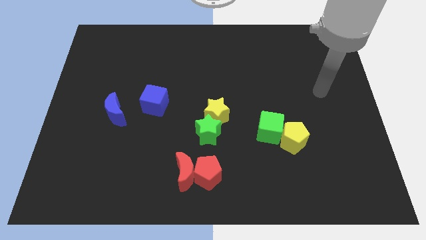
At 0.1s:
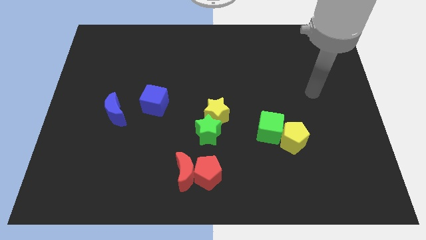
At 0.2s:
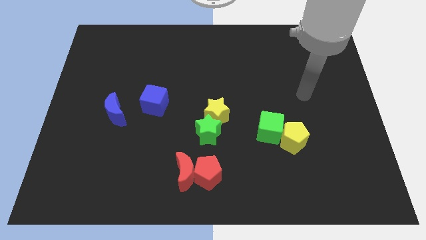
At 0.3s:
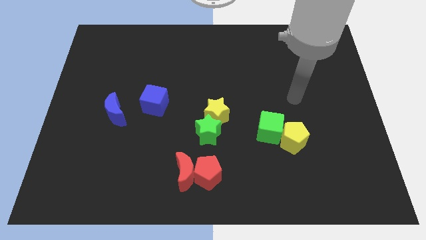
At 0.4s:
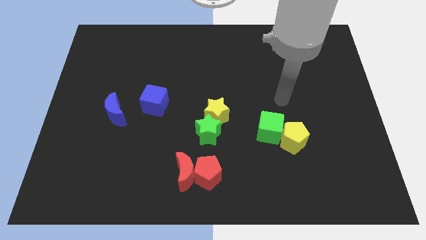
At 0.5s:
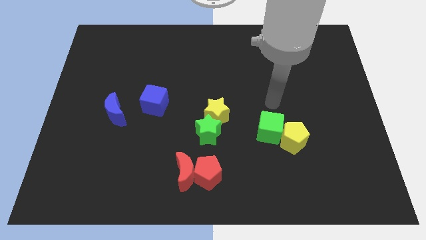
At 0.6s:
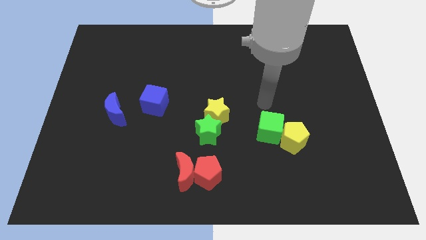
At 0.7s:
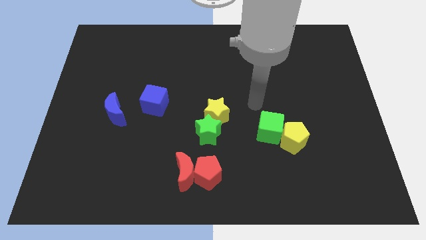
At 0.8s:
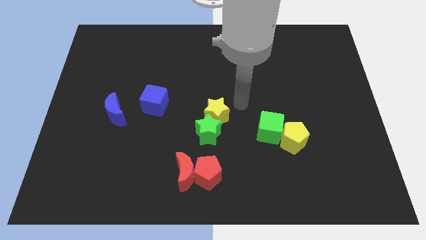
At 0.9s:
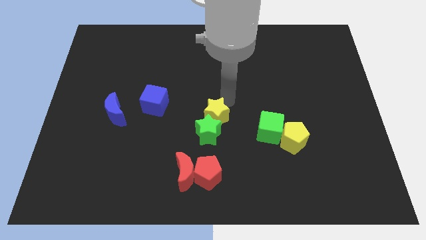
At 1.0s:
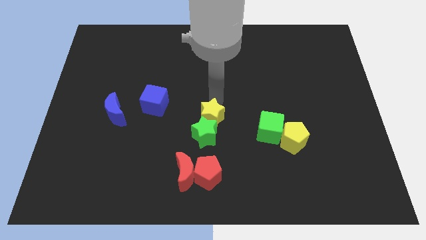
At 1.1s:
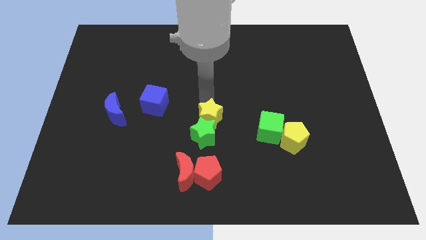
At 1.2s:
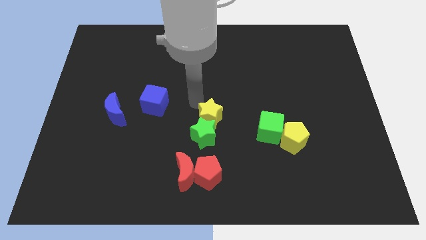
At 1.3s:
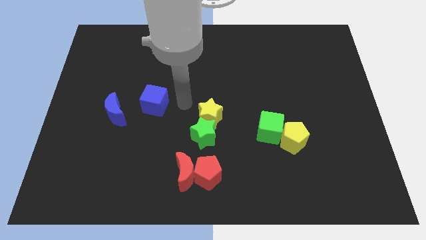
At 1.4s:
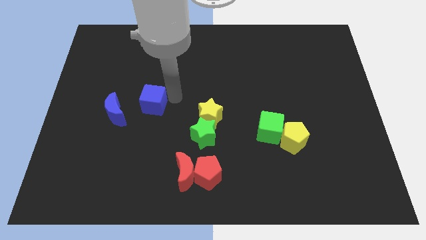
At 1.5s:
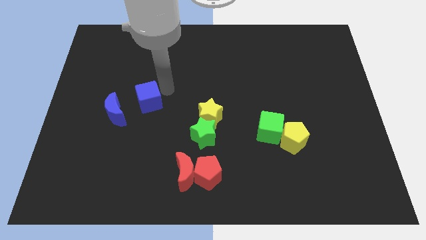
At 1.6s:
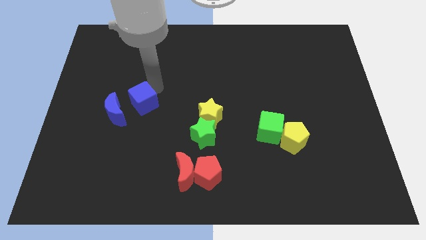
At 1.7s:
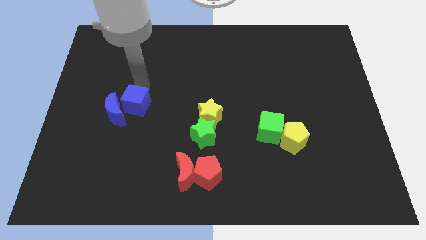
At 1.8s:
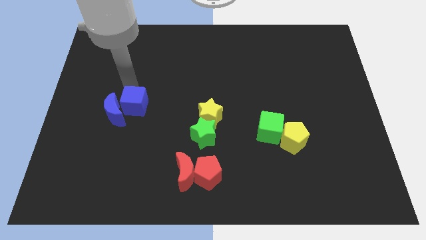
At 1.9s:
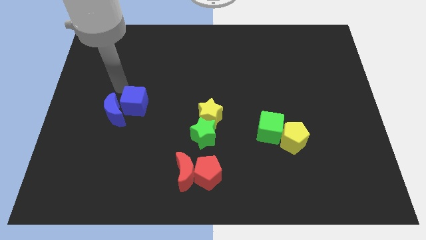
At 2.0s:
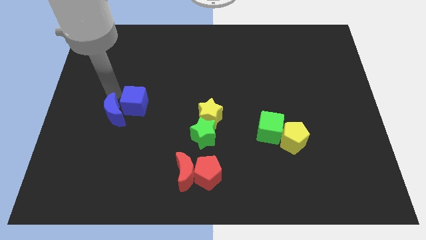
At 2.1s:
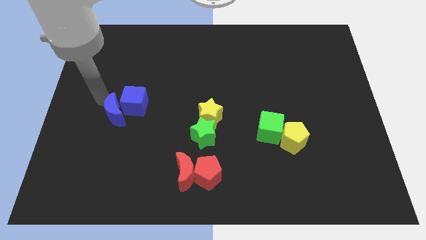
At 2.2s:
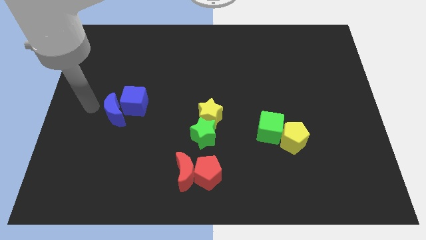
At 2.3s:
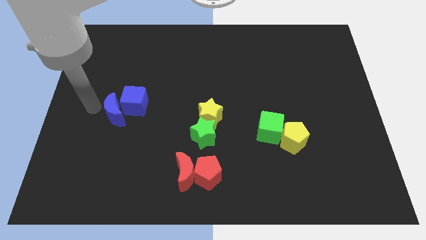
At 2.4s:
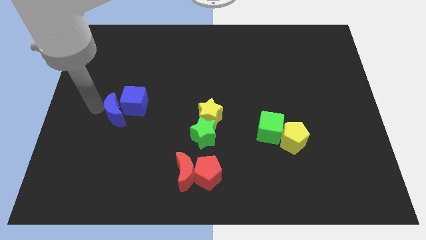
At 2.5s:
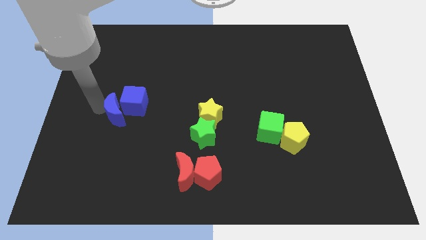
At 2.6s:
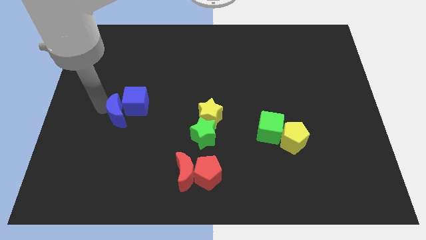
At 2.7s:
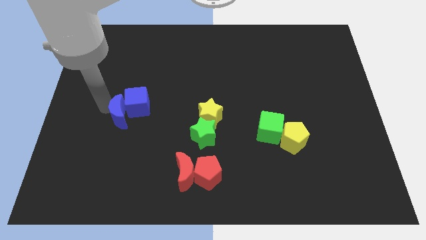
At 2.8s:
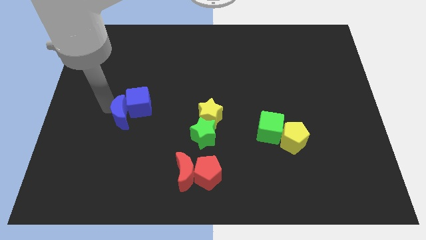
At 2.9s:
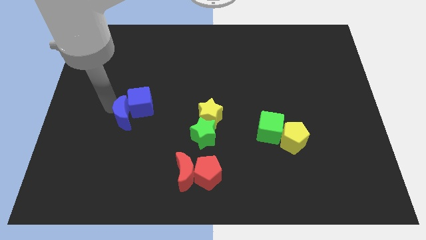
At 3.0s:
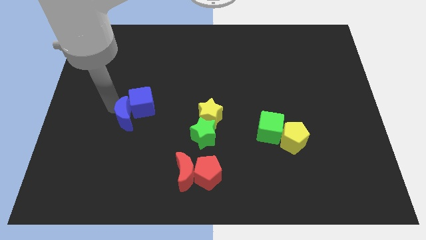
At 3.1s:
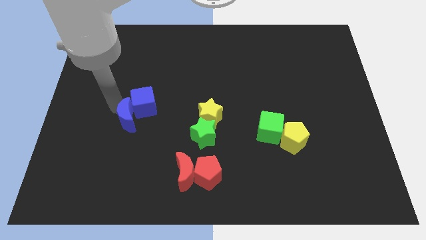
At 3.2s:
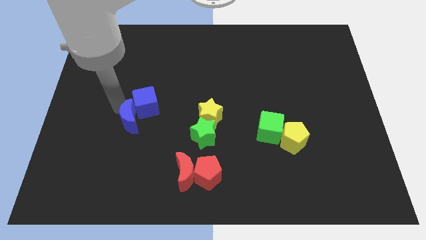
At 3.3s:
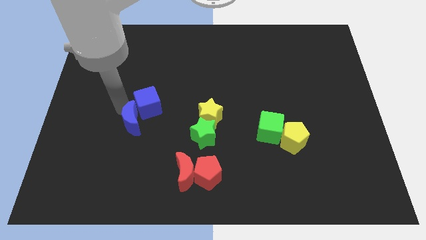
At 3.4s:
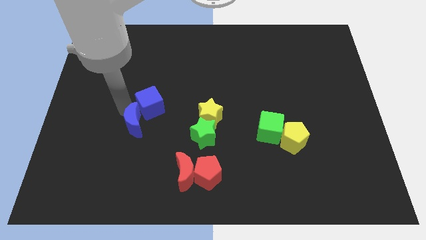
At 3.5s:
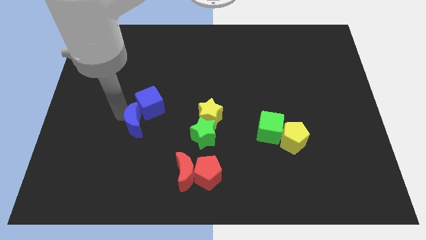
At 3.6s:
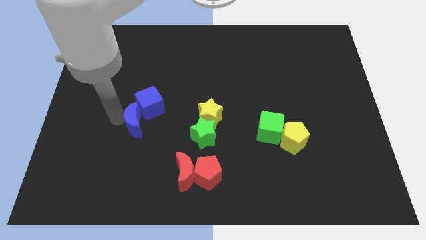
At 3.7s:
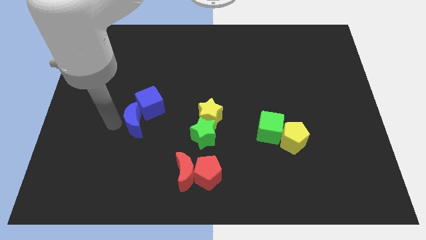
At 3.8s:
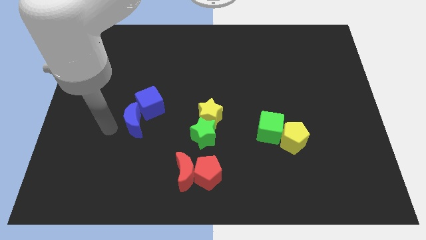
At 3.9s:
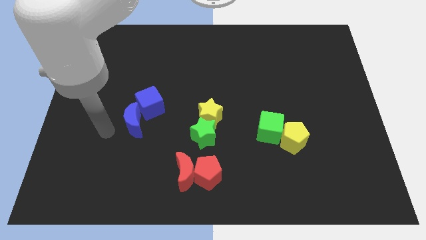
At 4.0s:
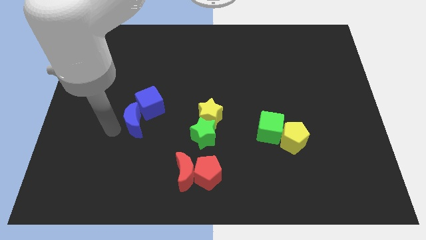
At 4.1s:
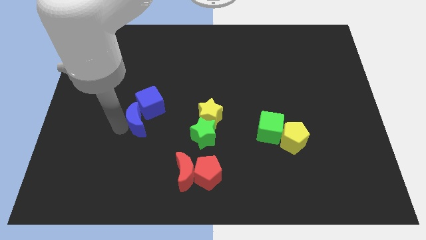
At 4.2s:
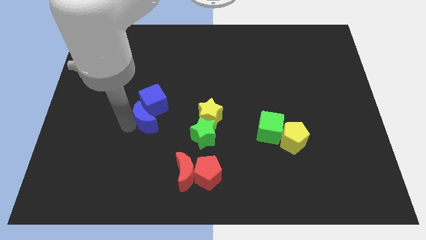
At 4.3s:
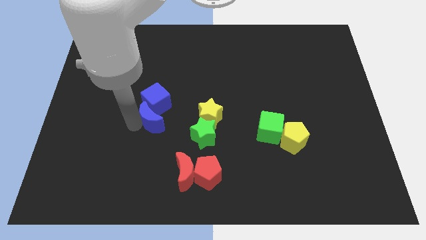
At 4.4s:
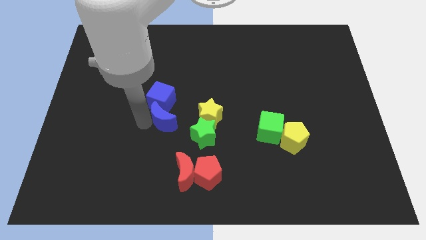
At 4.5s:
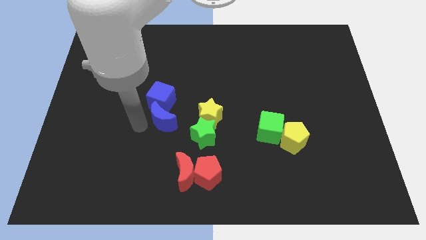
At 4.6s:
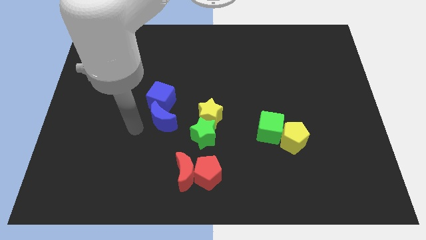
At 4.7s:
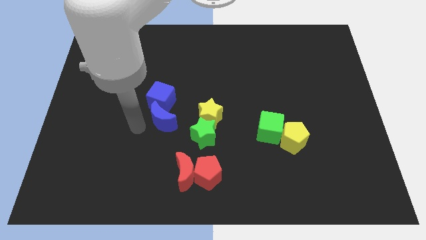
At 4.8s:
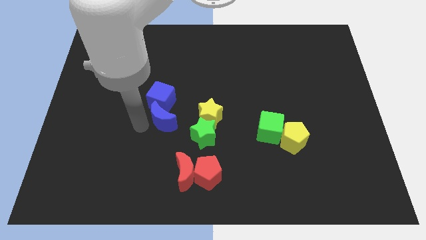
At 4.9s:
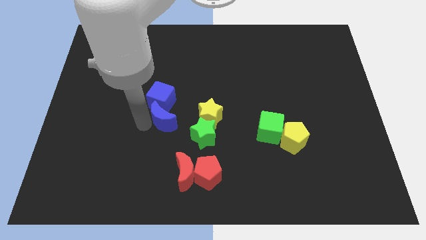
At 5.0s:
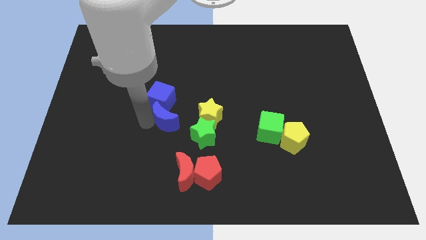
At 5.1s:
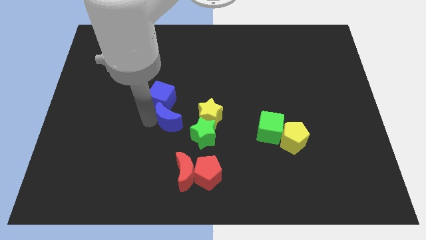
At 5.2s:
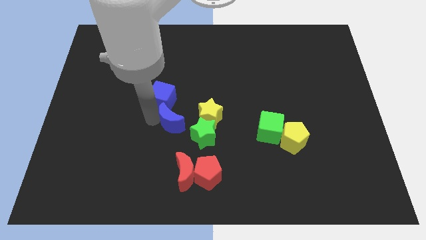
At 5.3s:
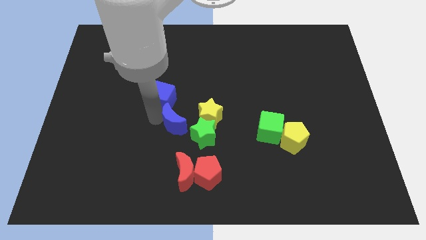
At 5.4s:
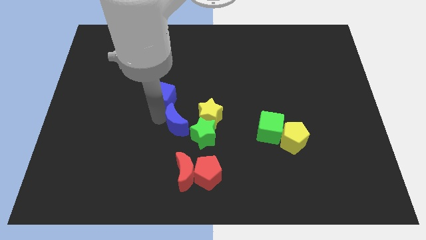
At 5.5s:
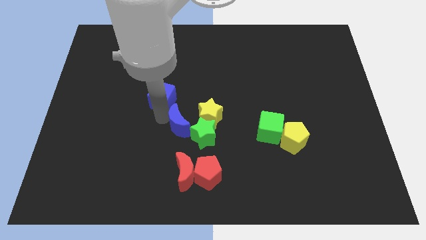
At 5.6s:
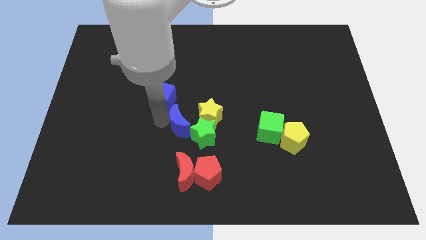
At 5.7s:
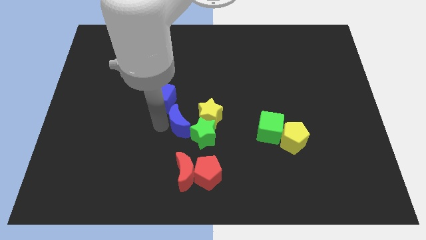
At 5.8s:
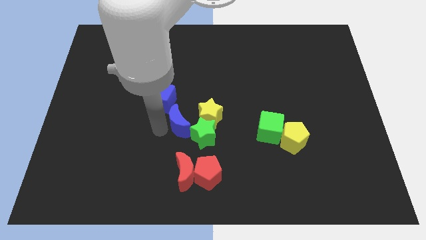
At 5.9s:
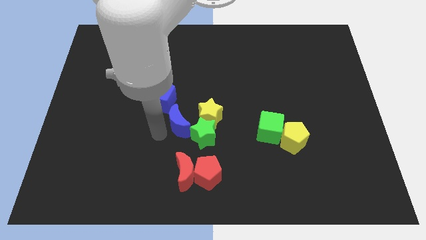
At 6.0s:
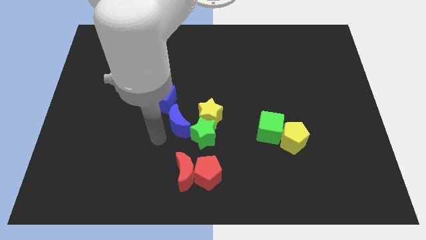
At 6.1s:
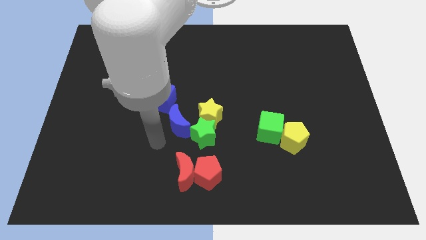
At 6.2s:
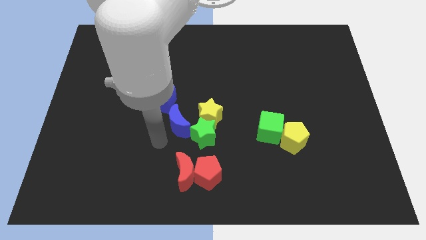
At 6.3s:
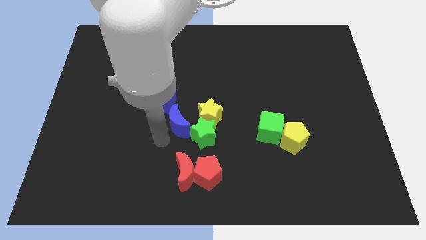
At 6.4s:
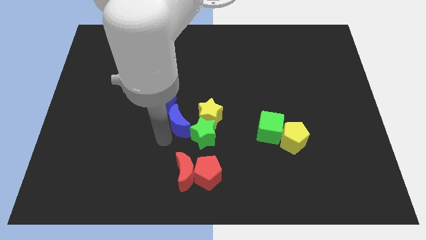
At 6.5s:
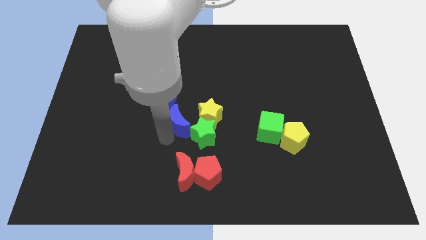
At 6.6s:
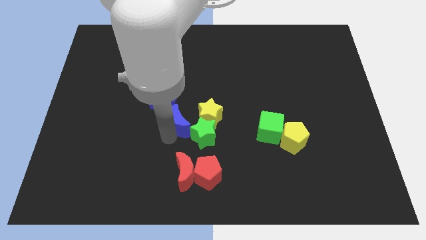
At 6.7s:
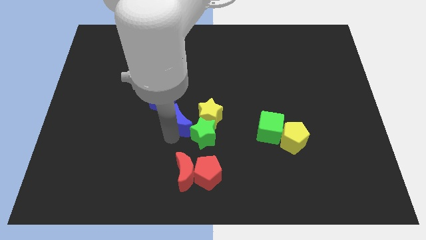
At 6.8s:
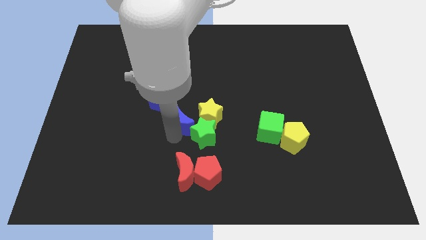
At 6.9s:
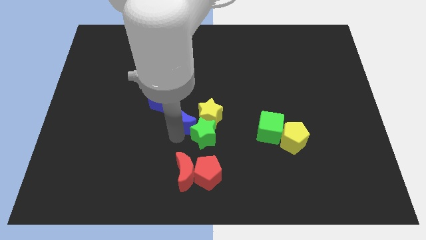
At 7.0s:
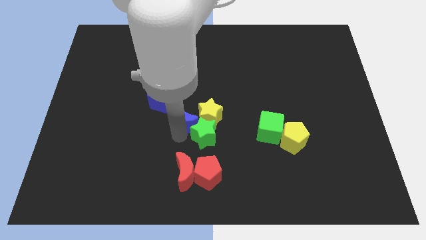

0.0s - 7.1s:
put the blue moon close to the yellow star

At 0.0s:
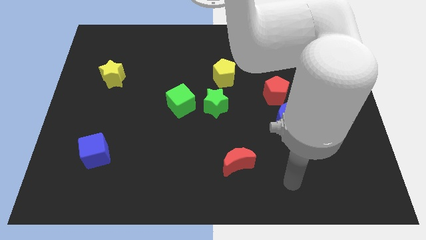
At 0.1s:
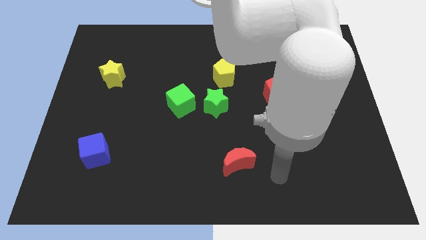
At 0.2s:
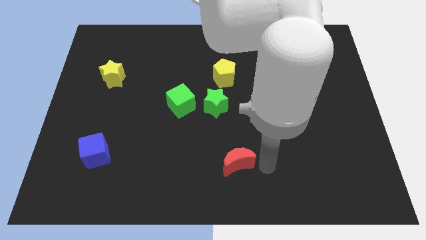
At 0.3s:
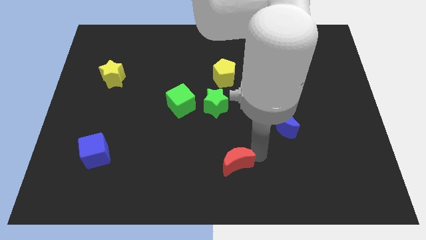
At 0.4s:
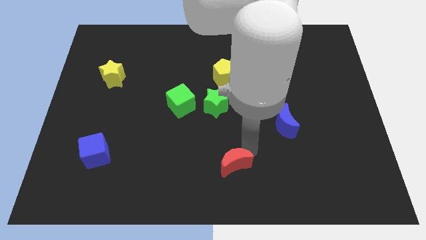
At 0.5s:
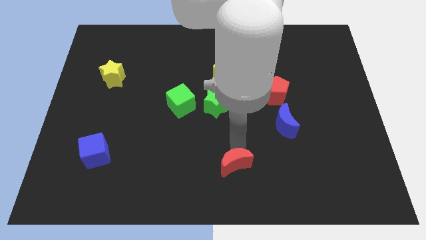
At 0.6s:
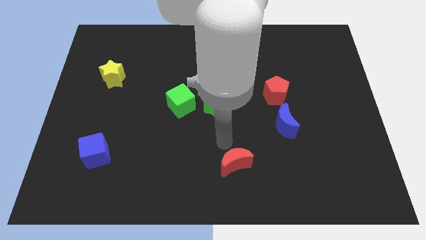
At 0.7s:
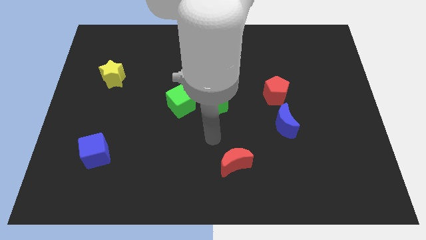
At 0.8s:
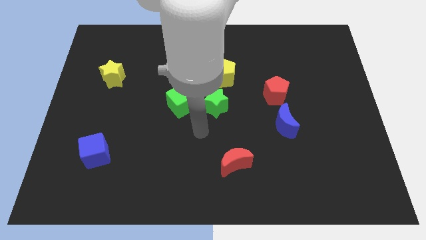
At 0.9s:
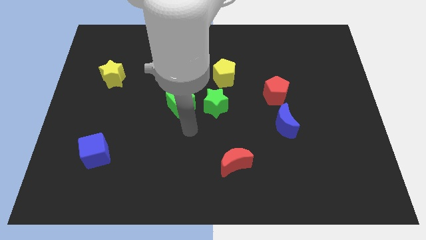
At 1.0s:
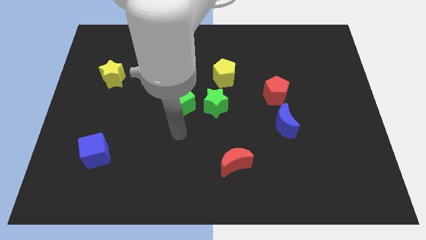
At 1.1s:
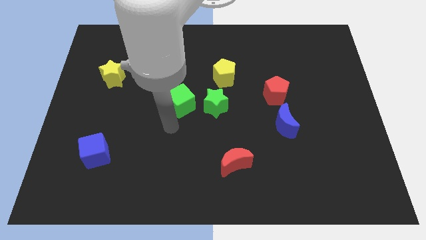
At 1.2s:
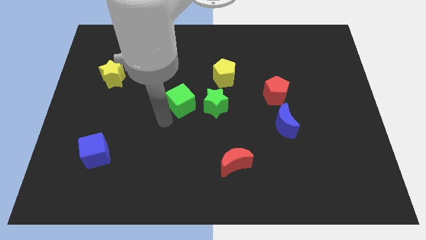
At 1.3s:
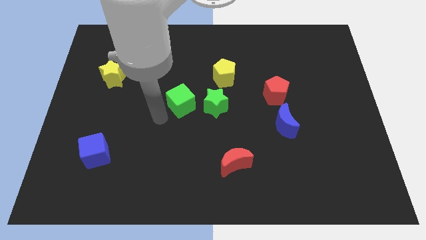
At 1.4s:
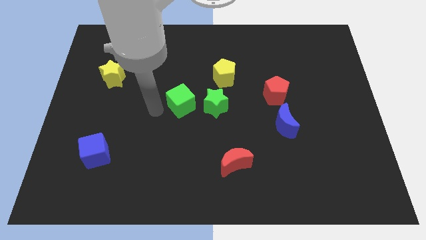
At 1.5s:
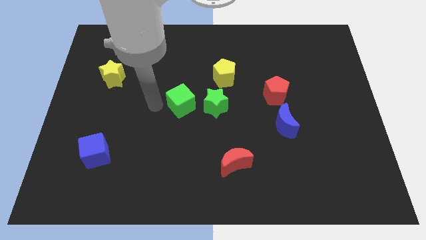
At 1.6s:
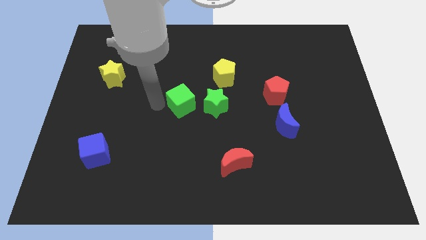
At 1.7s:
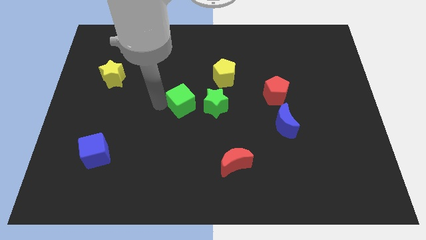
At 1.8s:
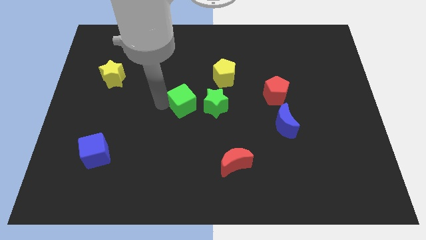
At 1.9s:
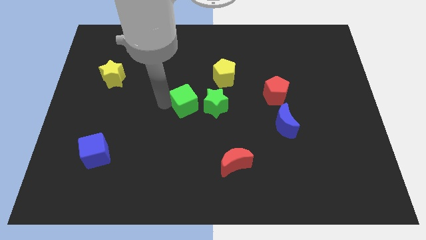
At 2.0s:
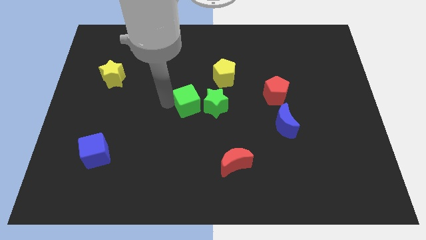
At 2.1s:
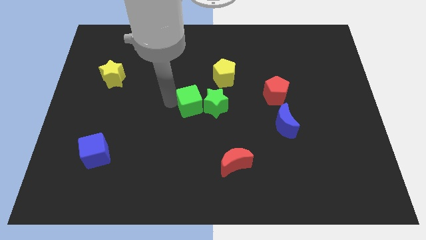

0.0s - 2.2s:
put the green cube towards the green star
